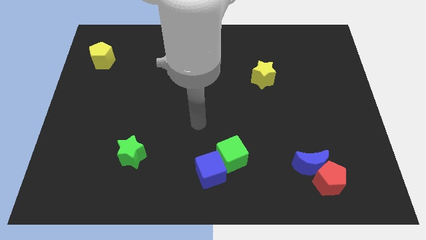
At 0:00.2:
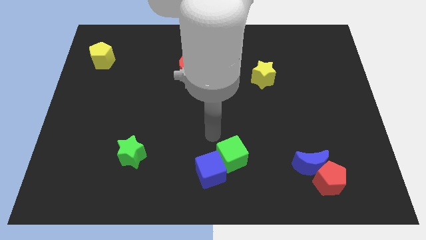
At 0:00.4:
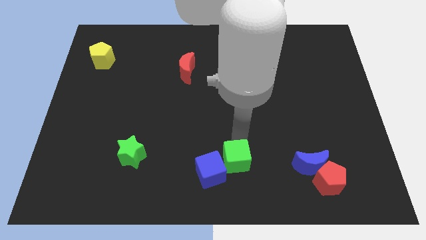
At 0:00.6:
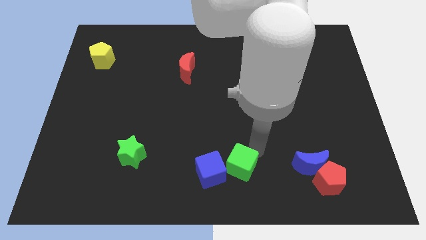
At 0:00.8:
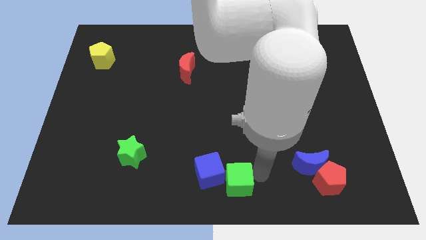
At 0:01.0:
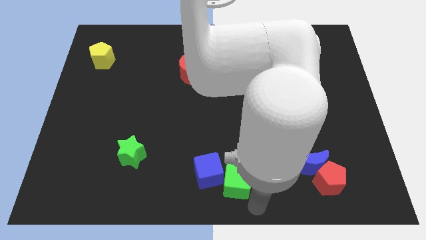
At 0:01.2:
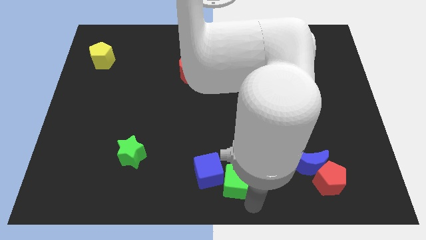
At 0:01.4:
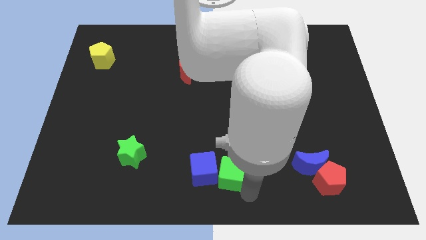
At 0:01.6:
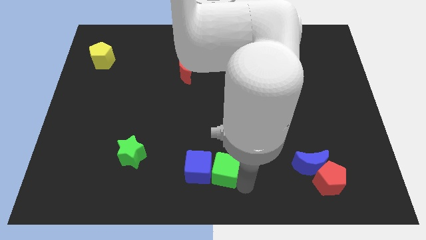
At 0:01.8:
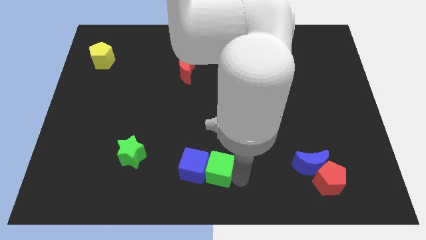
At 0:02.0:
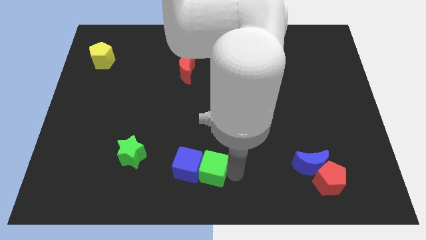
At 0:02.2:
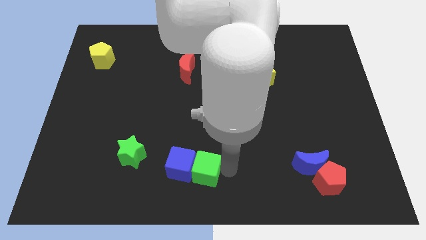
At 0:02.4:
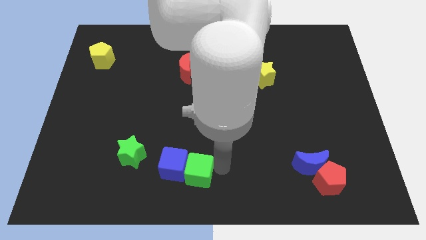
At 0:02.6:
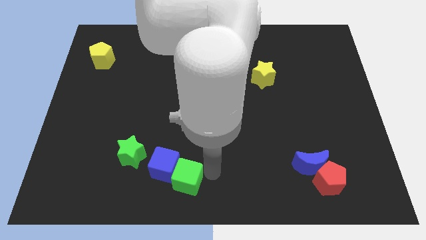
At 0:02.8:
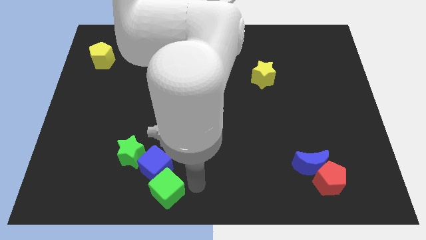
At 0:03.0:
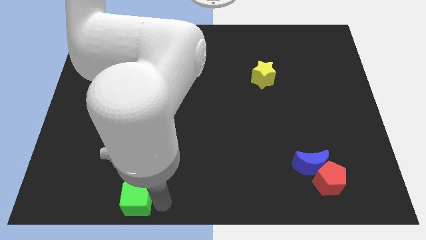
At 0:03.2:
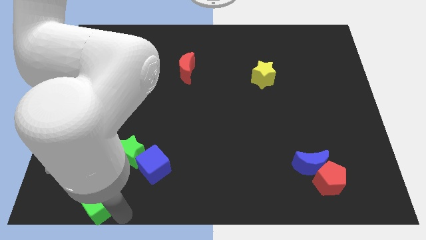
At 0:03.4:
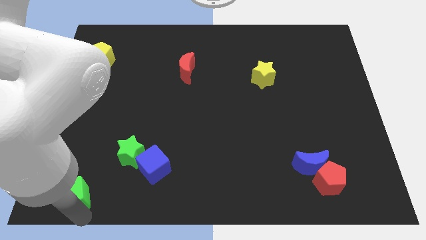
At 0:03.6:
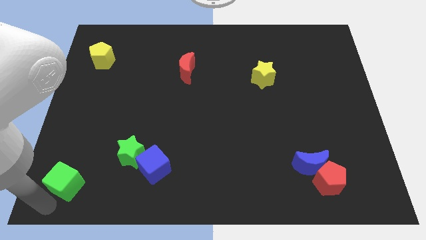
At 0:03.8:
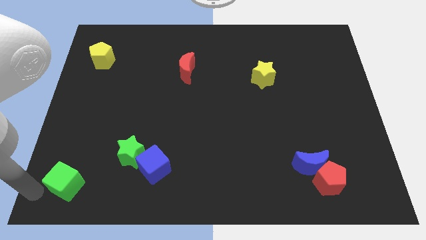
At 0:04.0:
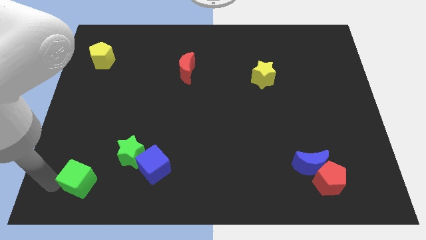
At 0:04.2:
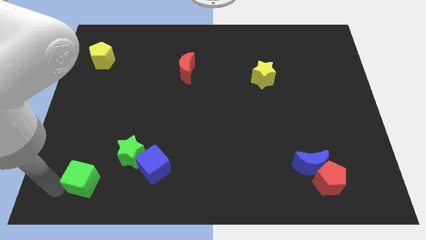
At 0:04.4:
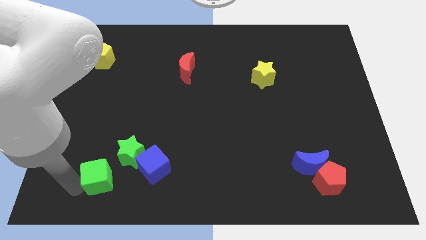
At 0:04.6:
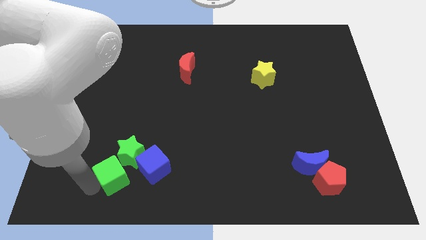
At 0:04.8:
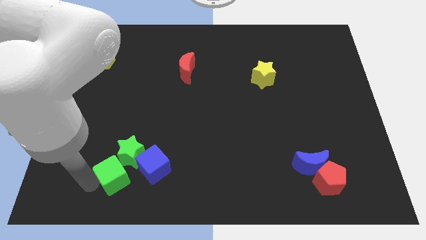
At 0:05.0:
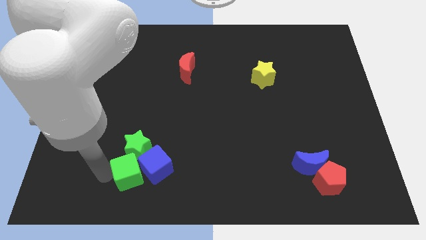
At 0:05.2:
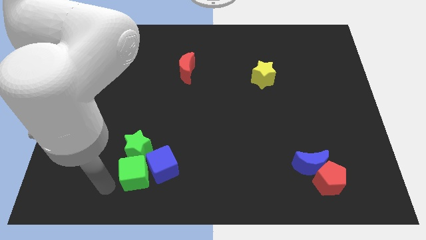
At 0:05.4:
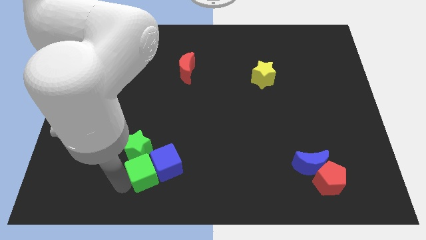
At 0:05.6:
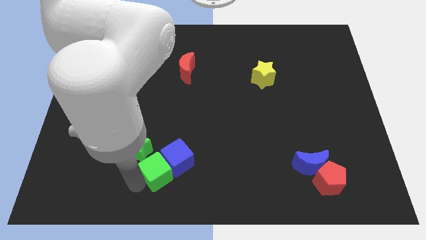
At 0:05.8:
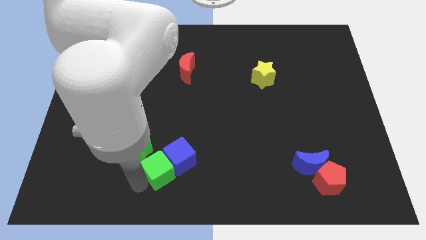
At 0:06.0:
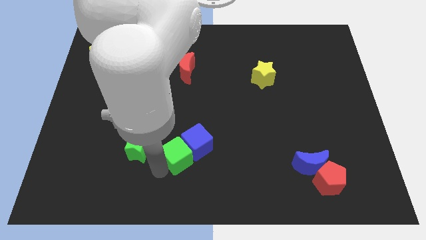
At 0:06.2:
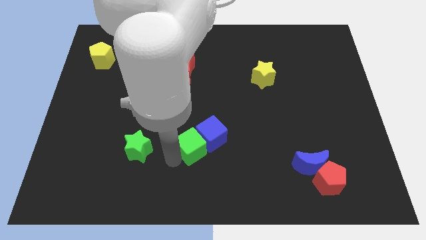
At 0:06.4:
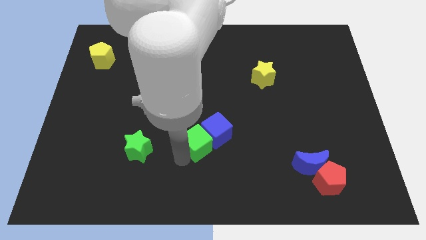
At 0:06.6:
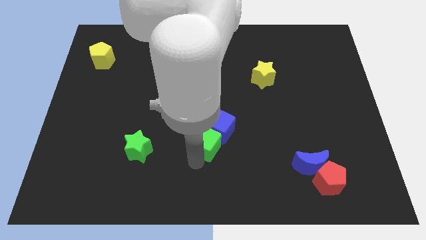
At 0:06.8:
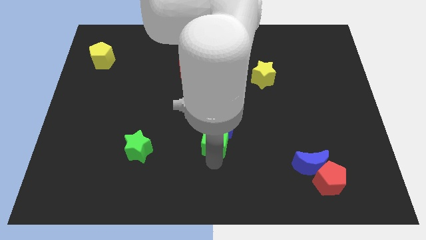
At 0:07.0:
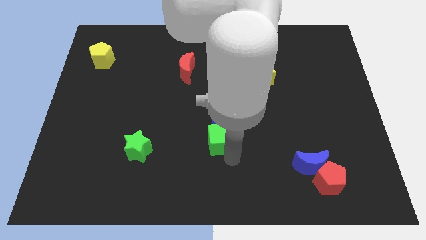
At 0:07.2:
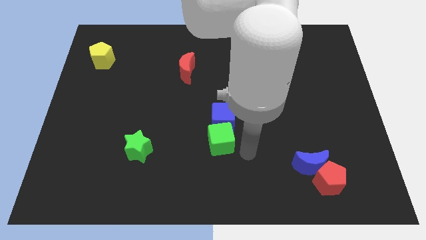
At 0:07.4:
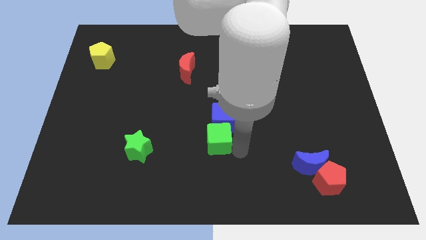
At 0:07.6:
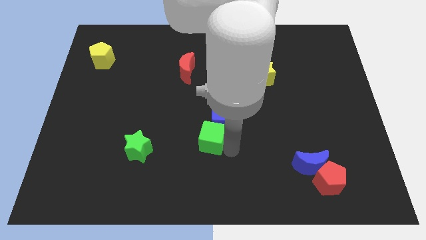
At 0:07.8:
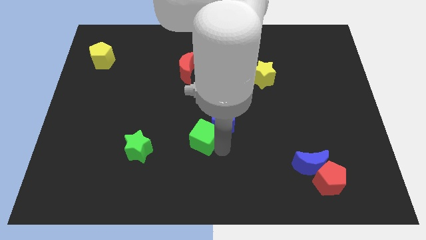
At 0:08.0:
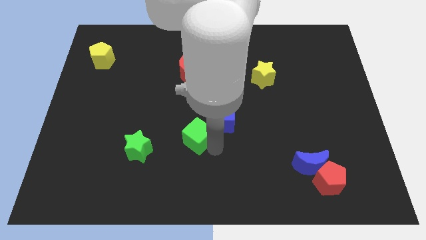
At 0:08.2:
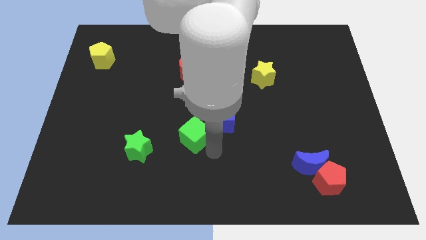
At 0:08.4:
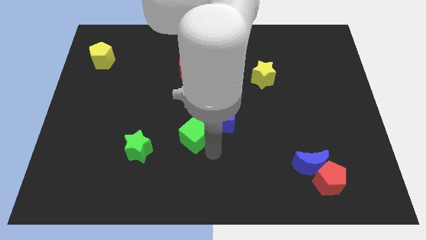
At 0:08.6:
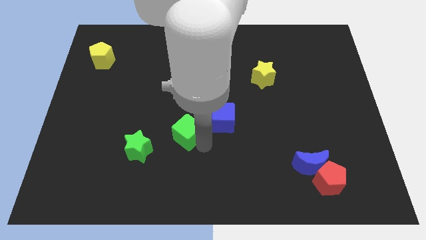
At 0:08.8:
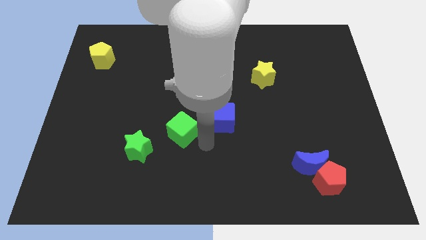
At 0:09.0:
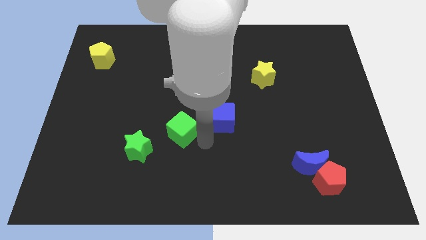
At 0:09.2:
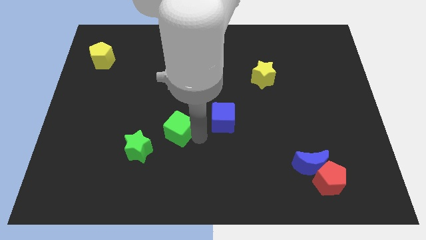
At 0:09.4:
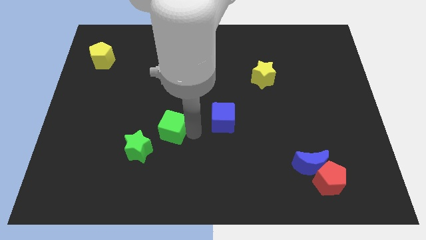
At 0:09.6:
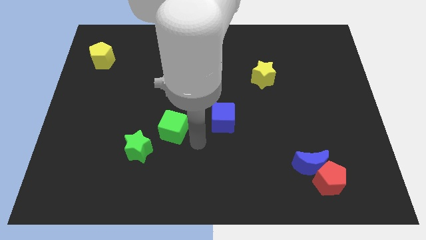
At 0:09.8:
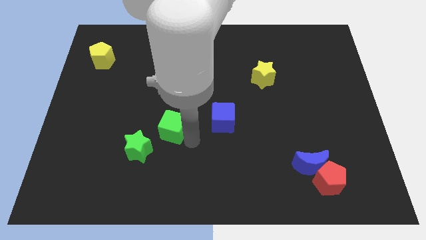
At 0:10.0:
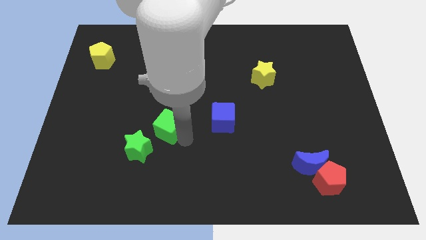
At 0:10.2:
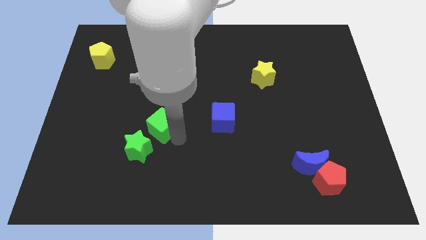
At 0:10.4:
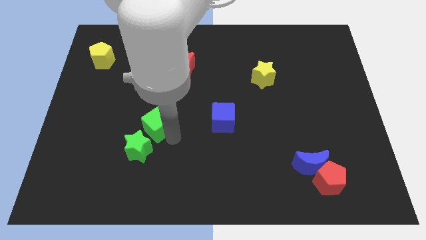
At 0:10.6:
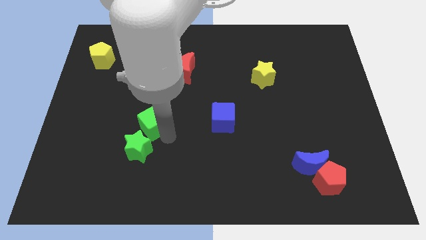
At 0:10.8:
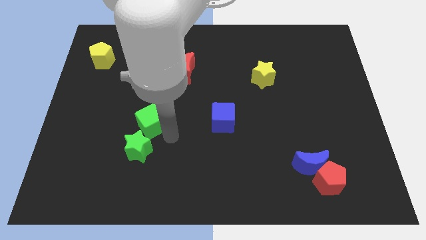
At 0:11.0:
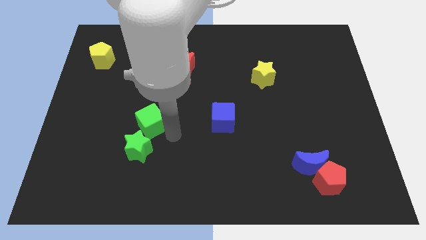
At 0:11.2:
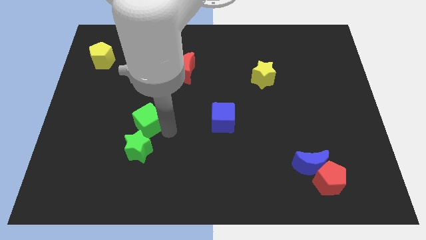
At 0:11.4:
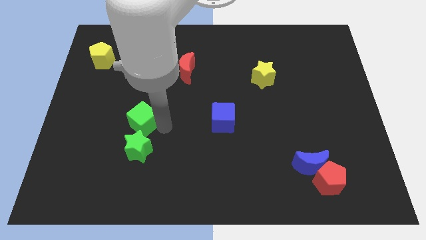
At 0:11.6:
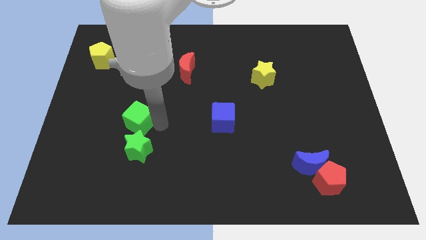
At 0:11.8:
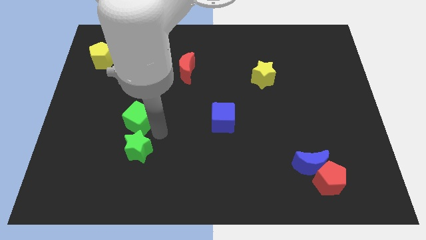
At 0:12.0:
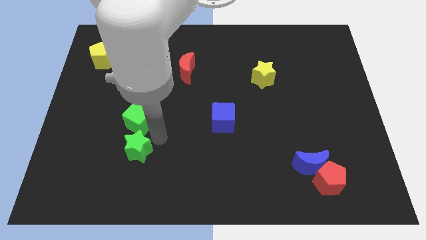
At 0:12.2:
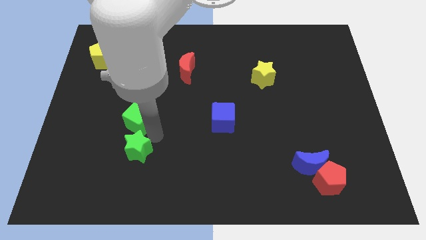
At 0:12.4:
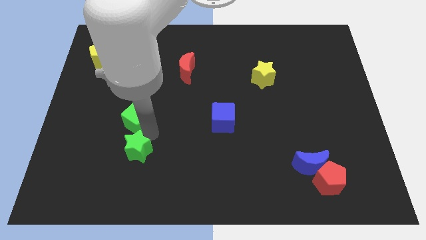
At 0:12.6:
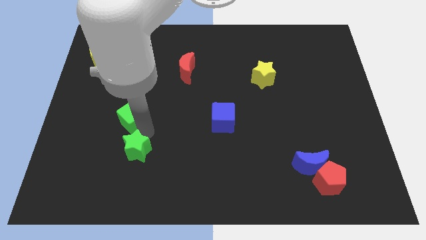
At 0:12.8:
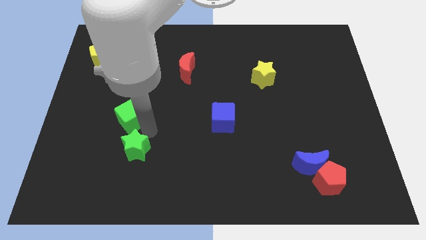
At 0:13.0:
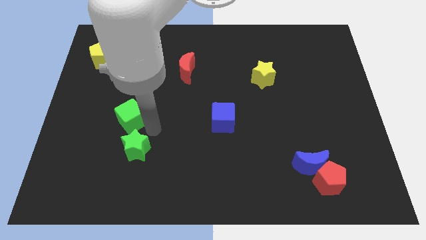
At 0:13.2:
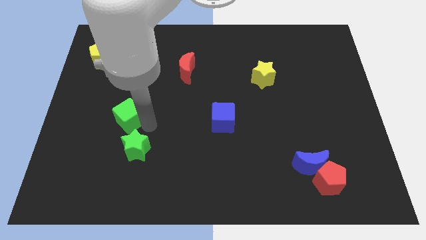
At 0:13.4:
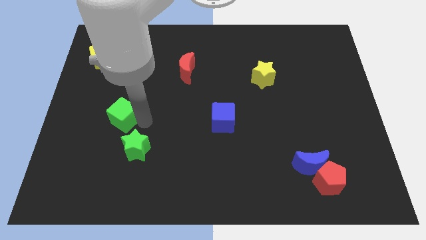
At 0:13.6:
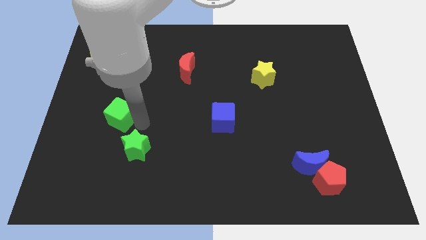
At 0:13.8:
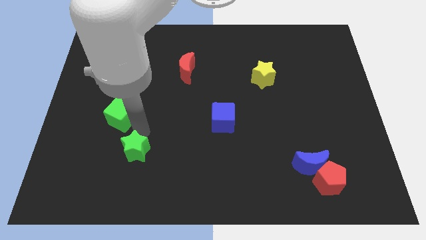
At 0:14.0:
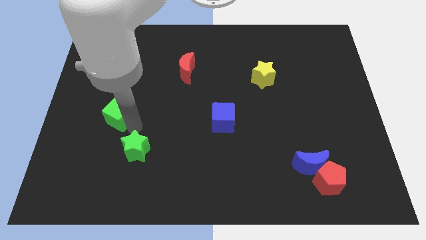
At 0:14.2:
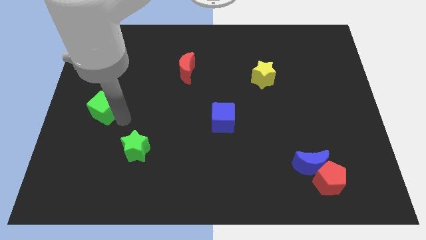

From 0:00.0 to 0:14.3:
put the green cube to the left side of the board
